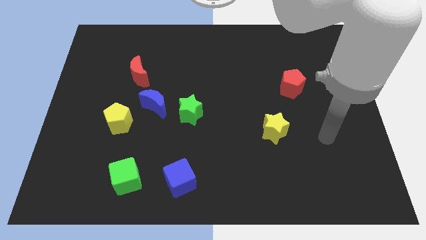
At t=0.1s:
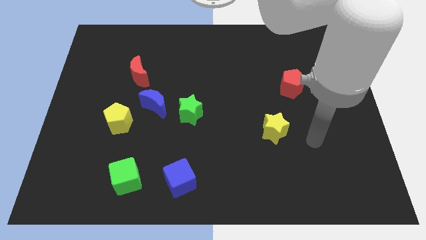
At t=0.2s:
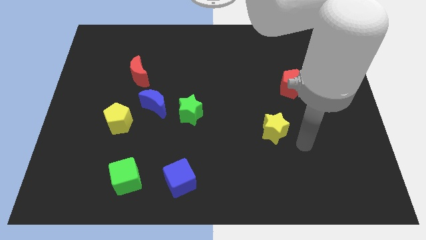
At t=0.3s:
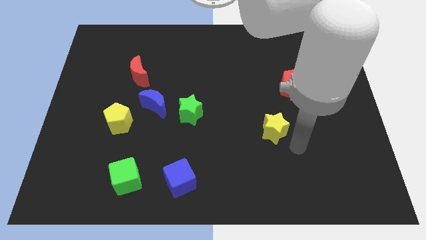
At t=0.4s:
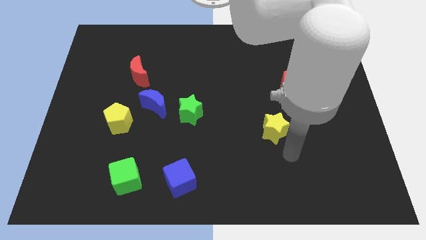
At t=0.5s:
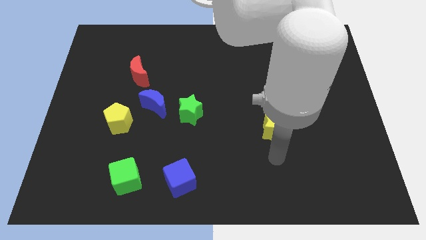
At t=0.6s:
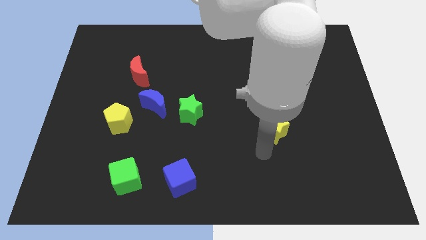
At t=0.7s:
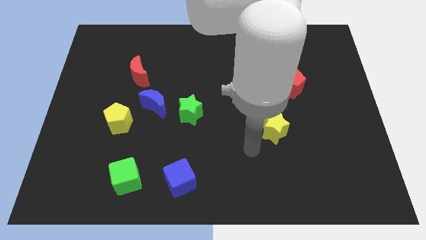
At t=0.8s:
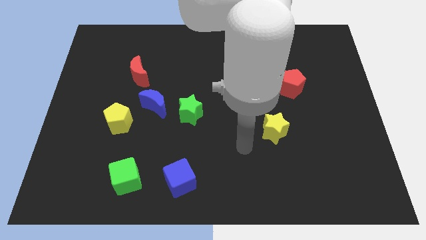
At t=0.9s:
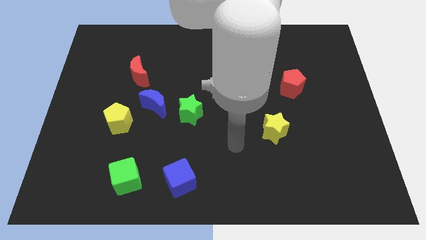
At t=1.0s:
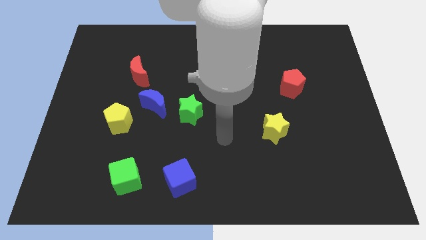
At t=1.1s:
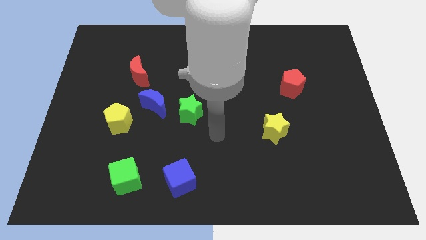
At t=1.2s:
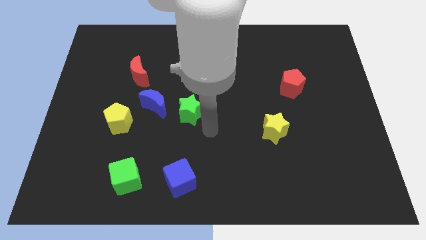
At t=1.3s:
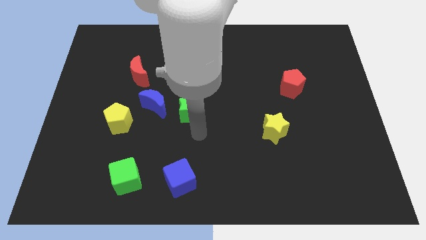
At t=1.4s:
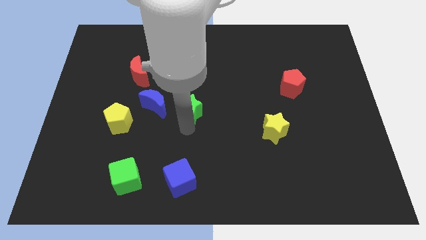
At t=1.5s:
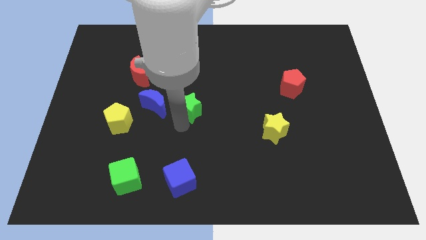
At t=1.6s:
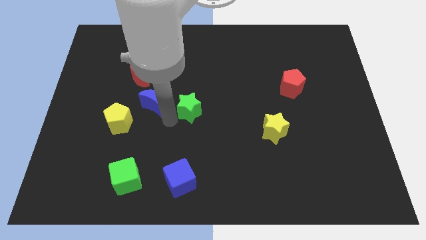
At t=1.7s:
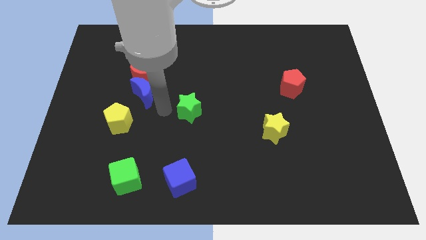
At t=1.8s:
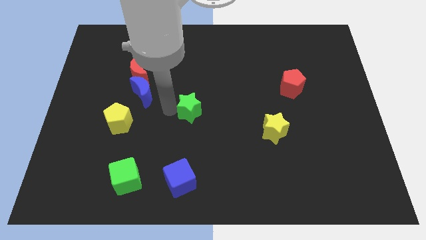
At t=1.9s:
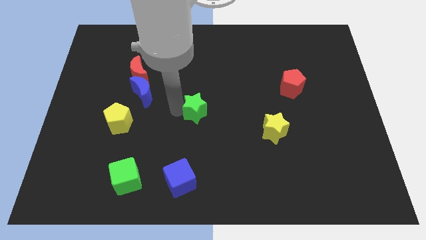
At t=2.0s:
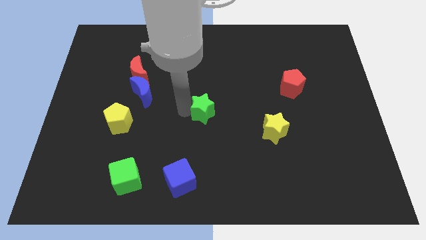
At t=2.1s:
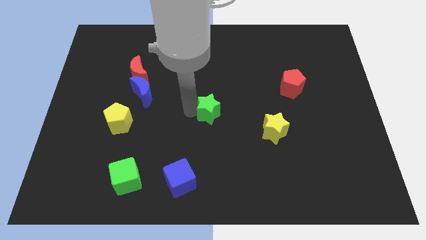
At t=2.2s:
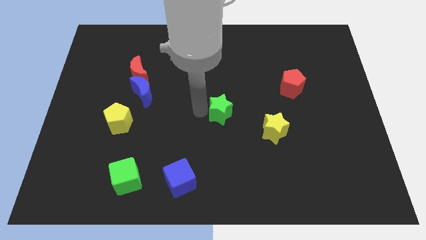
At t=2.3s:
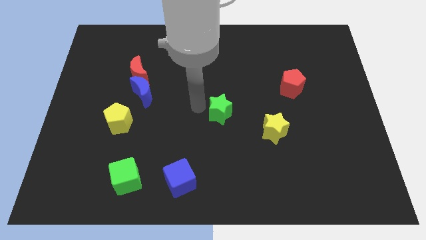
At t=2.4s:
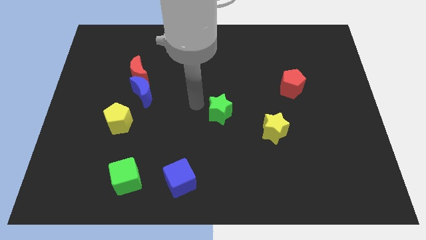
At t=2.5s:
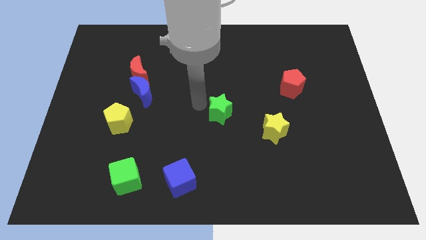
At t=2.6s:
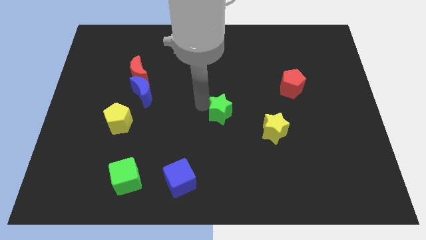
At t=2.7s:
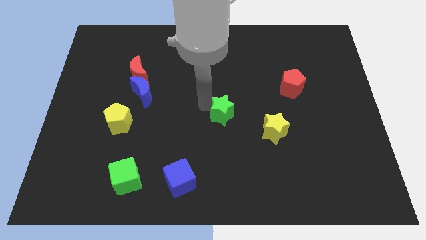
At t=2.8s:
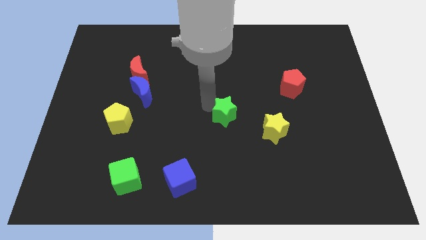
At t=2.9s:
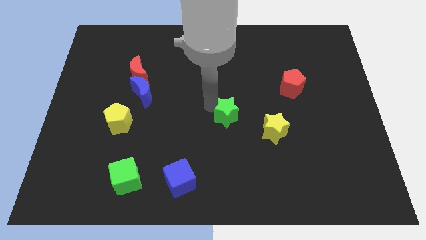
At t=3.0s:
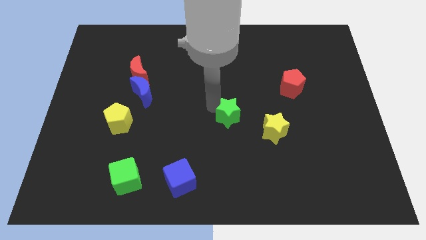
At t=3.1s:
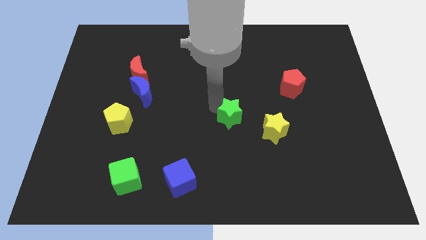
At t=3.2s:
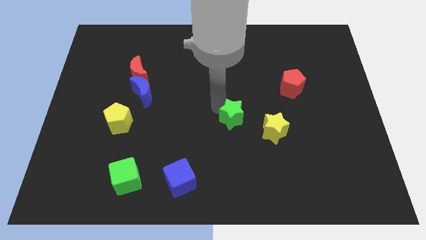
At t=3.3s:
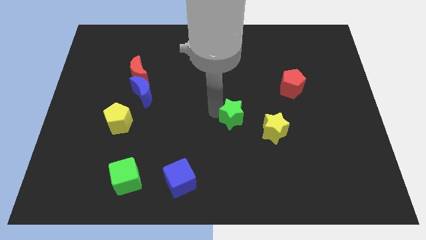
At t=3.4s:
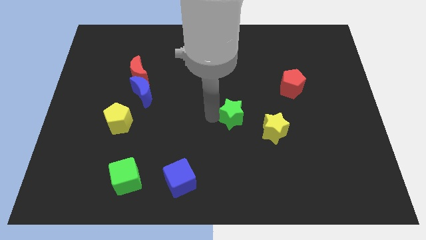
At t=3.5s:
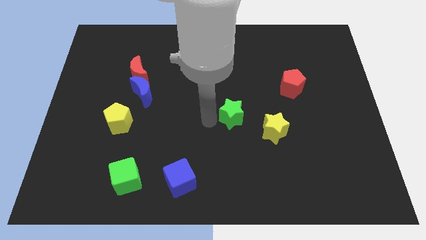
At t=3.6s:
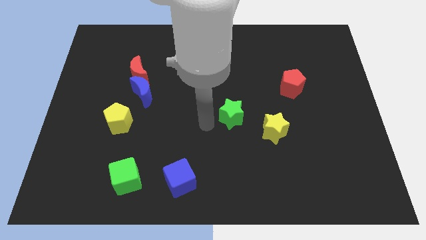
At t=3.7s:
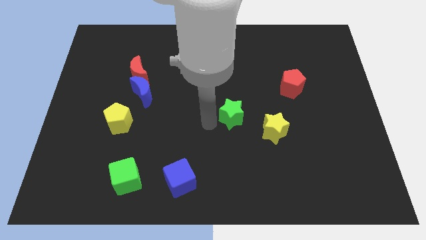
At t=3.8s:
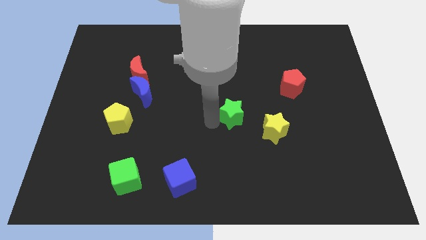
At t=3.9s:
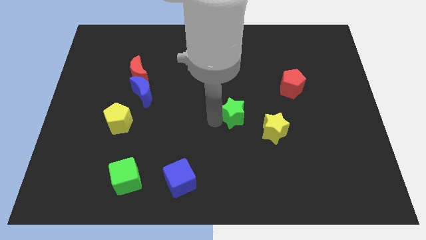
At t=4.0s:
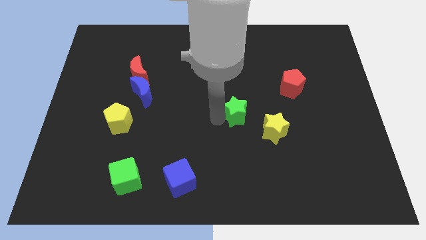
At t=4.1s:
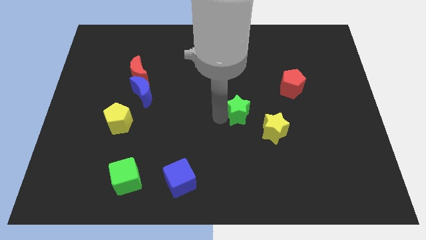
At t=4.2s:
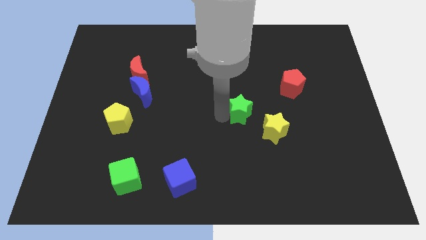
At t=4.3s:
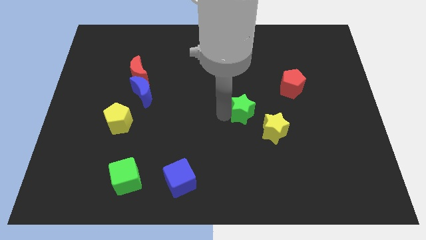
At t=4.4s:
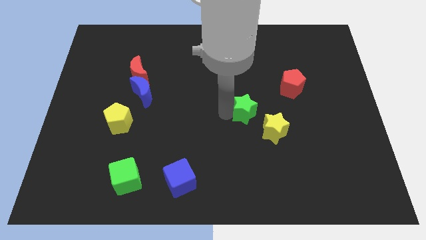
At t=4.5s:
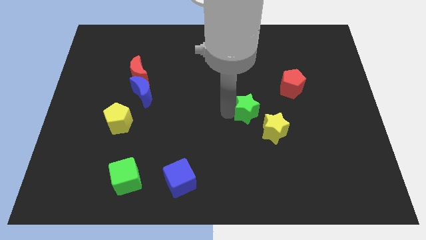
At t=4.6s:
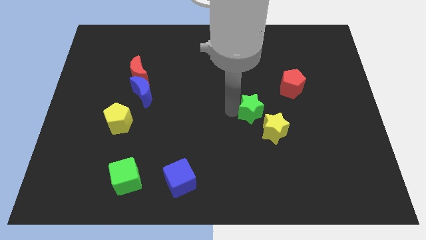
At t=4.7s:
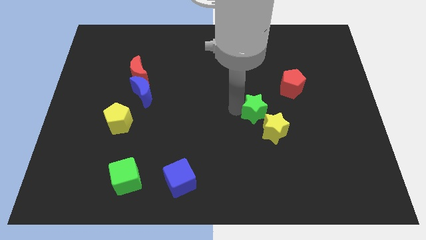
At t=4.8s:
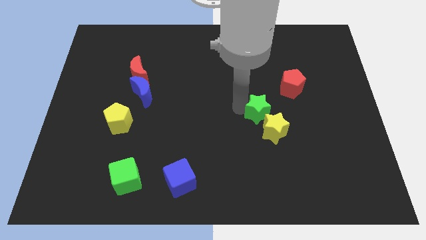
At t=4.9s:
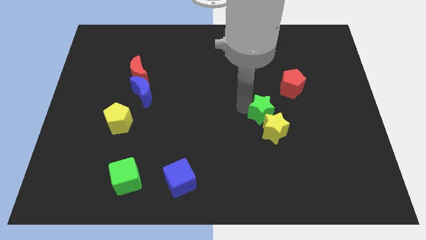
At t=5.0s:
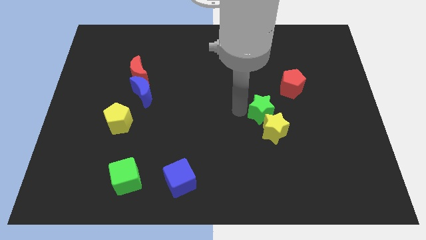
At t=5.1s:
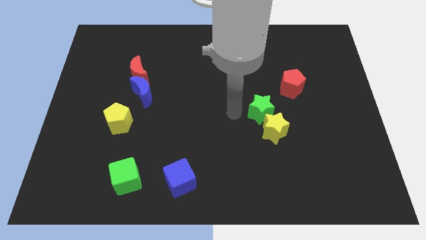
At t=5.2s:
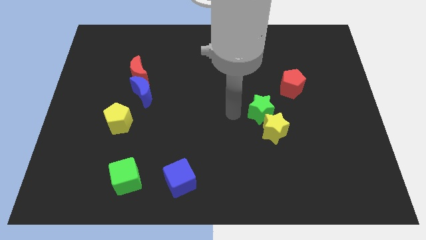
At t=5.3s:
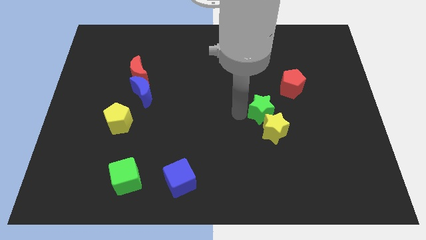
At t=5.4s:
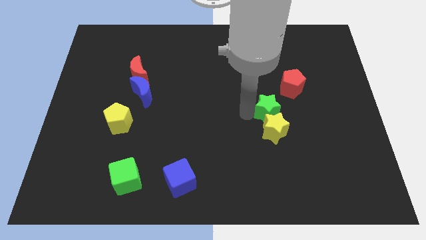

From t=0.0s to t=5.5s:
move the green star to the top right of the yellow star

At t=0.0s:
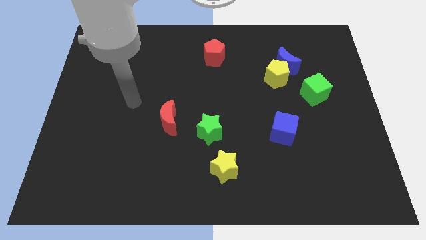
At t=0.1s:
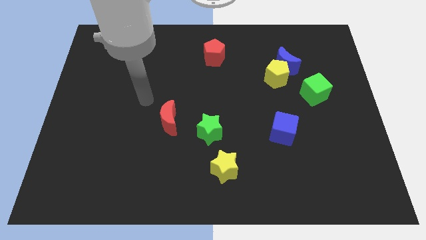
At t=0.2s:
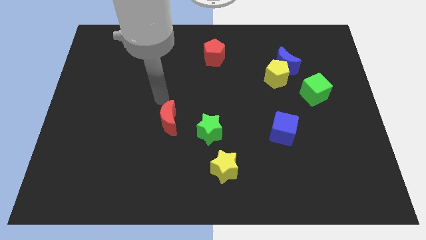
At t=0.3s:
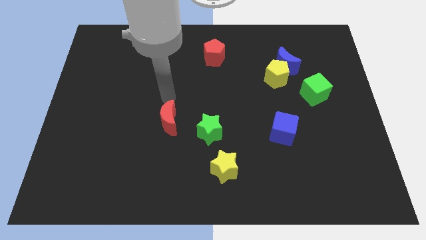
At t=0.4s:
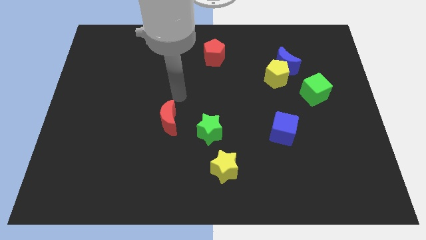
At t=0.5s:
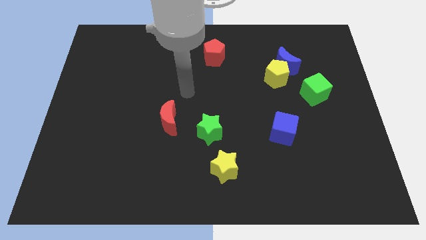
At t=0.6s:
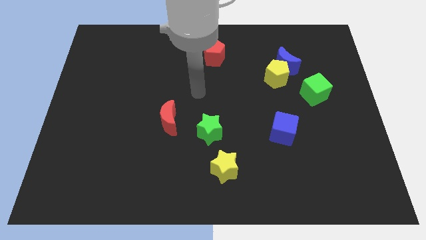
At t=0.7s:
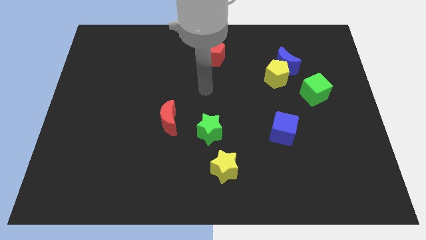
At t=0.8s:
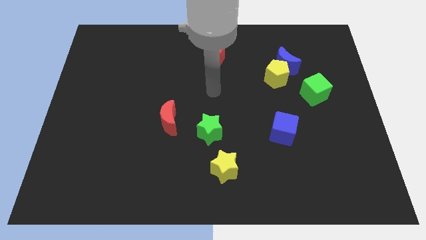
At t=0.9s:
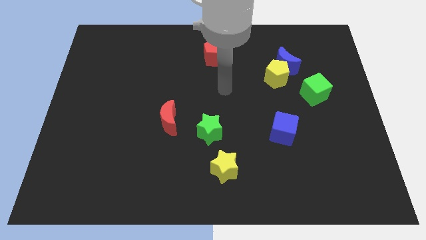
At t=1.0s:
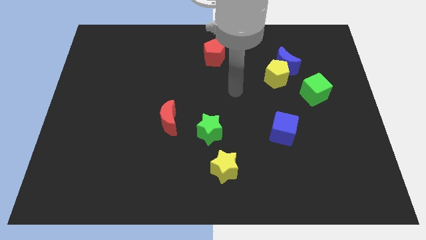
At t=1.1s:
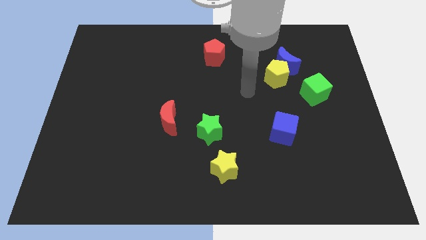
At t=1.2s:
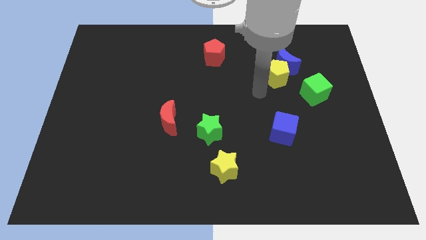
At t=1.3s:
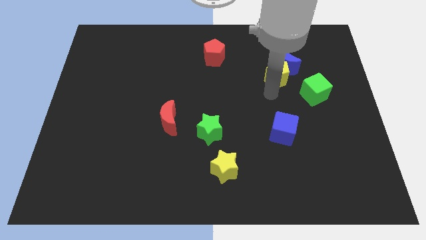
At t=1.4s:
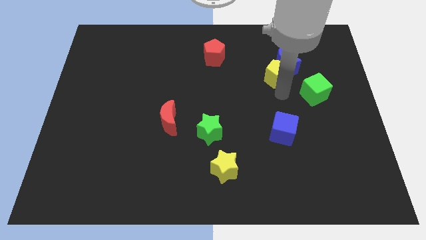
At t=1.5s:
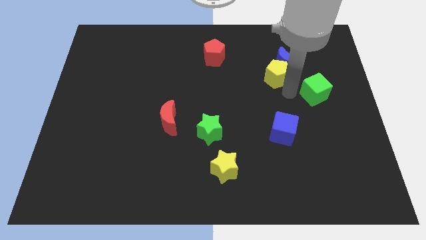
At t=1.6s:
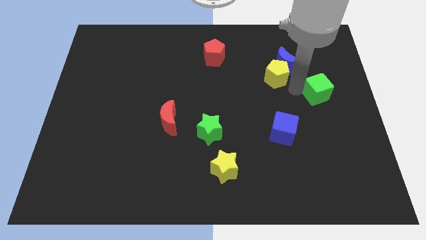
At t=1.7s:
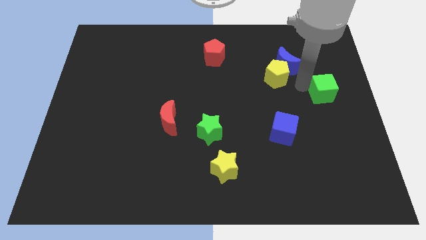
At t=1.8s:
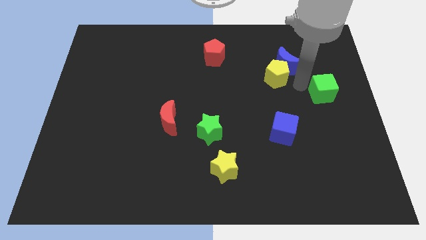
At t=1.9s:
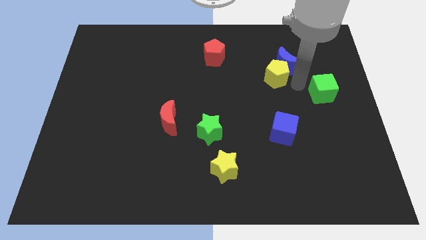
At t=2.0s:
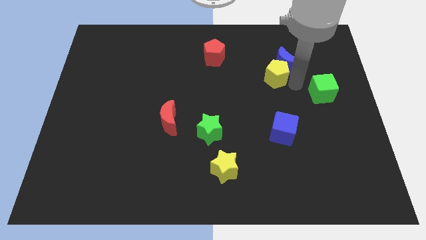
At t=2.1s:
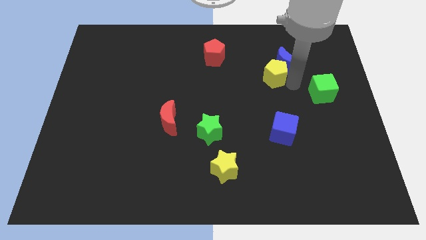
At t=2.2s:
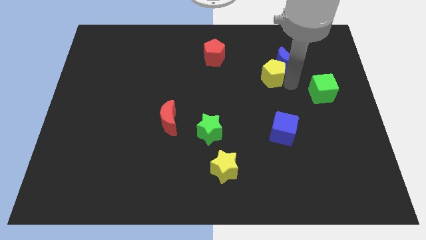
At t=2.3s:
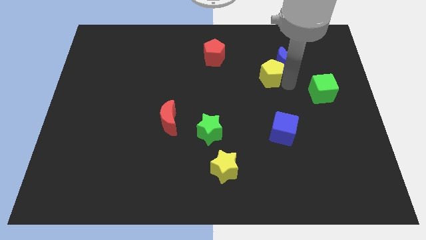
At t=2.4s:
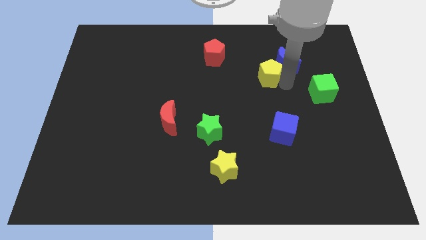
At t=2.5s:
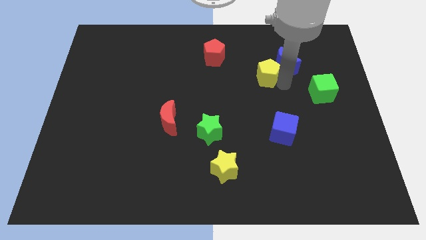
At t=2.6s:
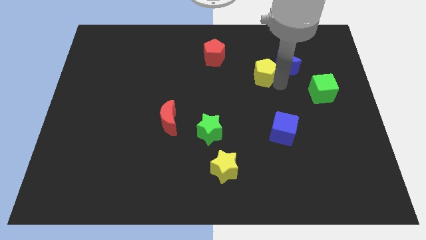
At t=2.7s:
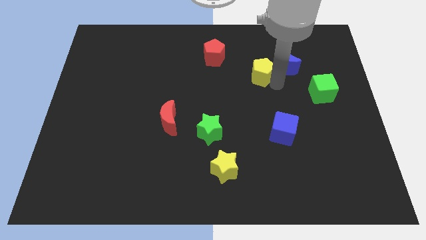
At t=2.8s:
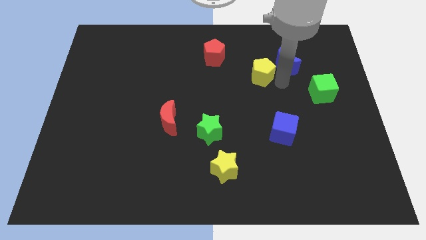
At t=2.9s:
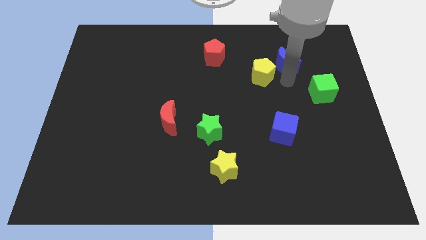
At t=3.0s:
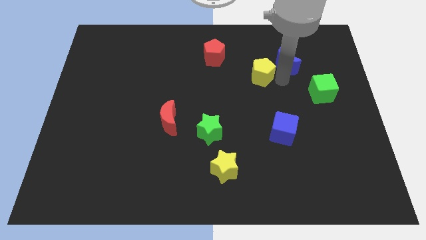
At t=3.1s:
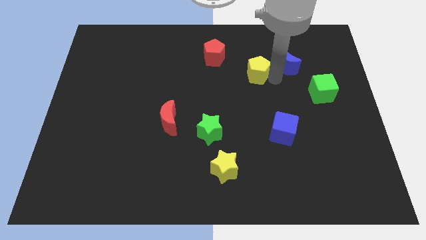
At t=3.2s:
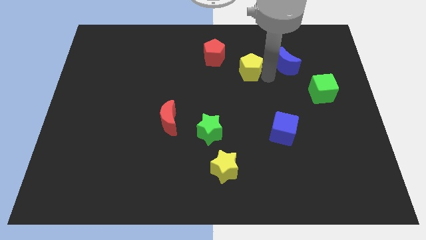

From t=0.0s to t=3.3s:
put the yellow pentagon to the bottom right side of the red pentagon
